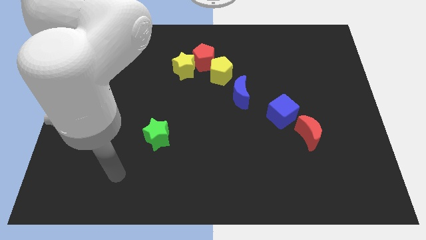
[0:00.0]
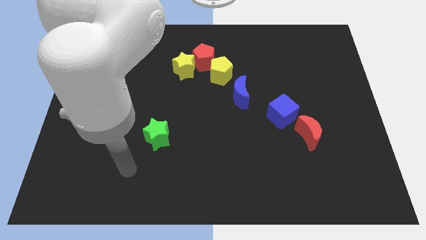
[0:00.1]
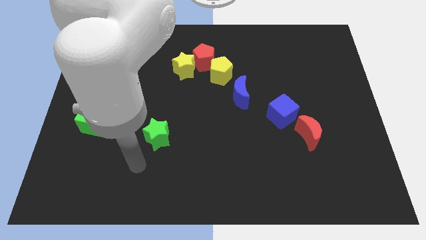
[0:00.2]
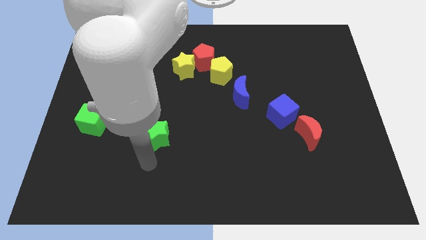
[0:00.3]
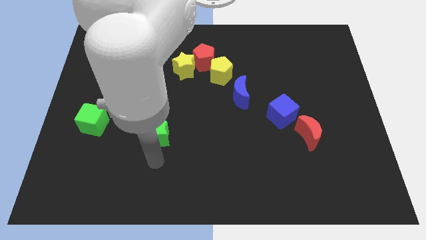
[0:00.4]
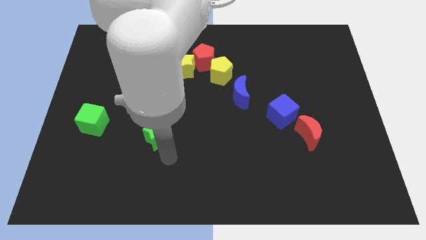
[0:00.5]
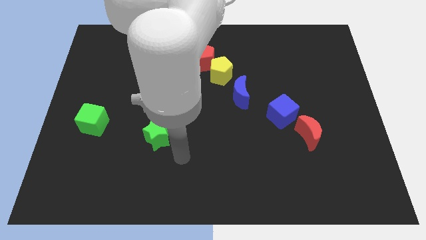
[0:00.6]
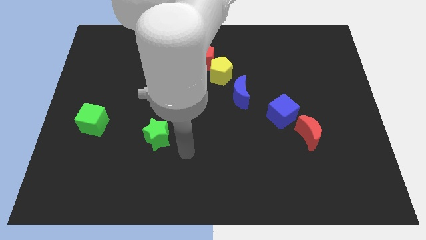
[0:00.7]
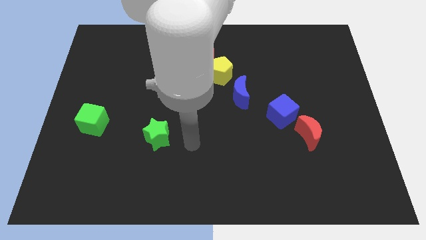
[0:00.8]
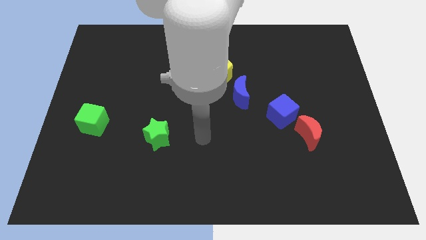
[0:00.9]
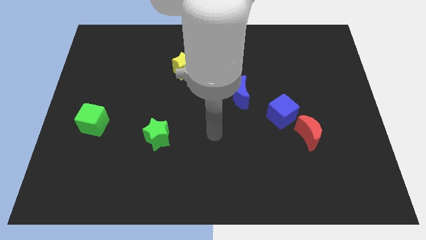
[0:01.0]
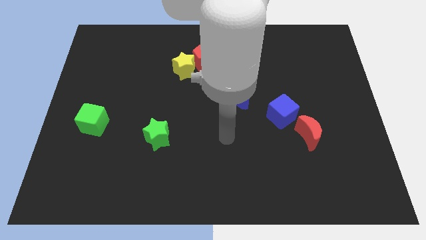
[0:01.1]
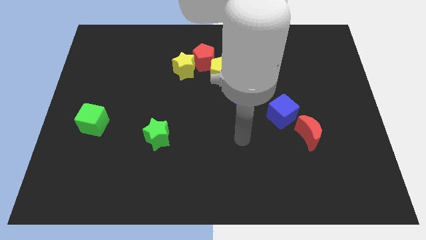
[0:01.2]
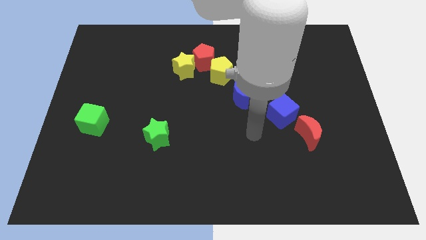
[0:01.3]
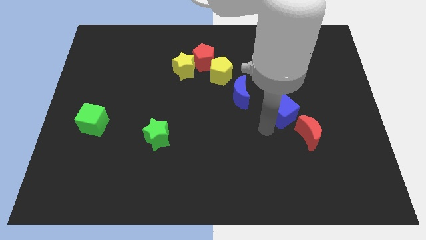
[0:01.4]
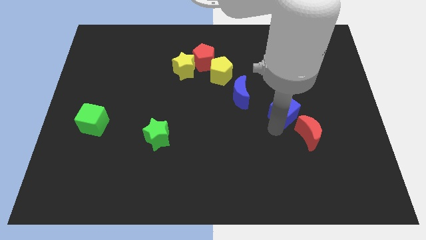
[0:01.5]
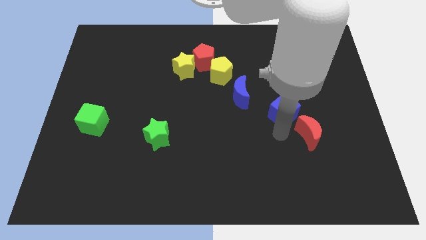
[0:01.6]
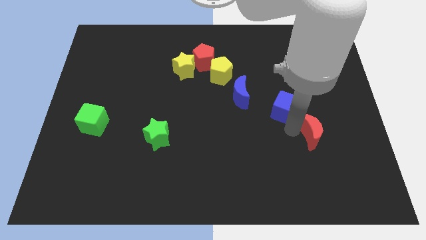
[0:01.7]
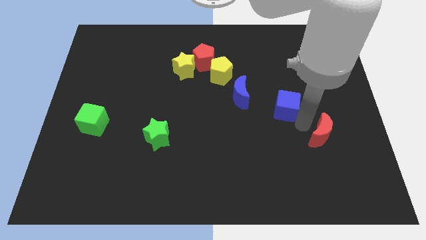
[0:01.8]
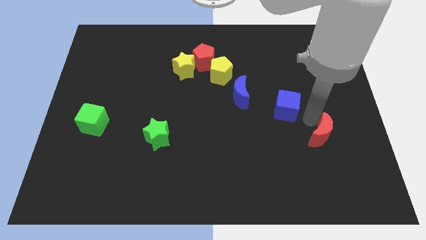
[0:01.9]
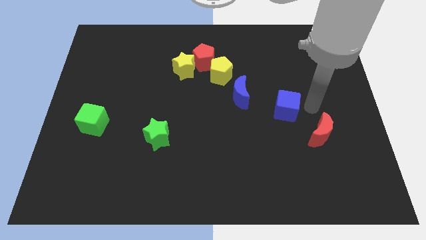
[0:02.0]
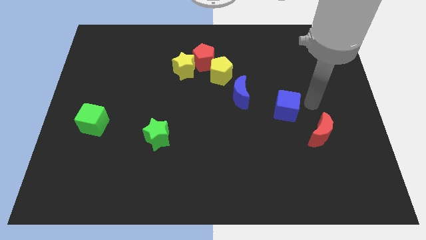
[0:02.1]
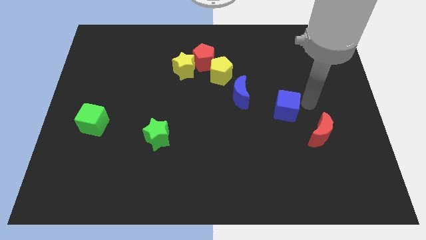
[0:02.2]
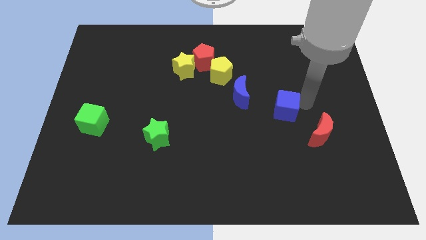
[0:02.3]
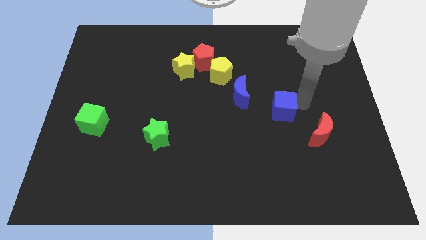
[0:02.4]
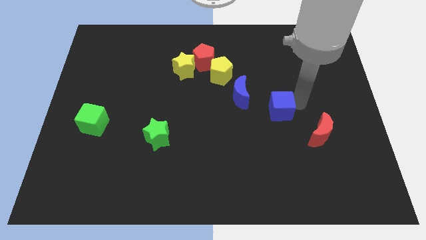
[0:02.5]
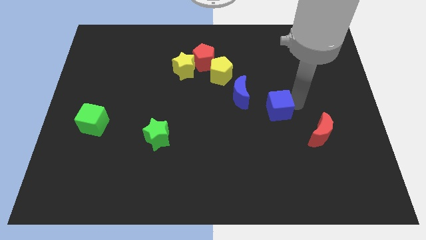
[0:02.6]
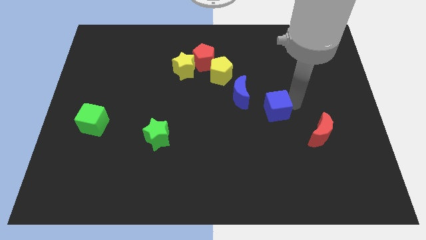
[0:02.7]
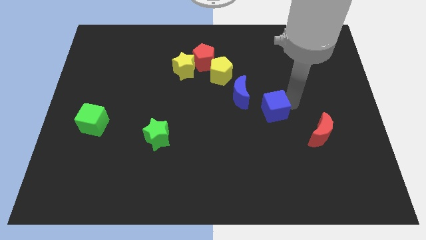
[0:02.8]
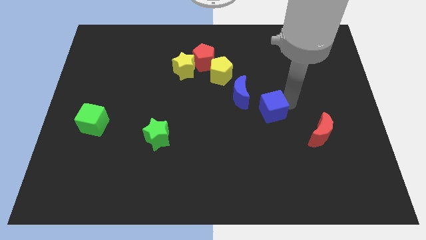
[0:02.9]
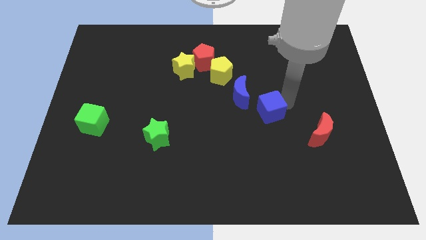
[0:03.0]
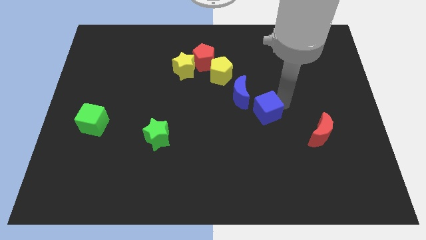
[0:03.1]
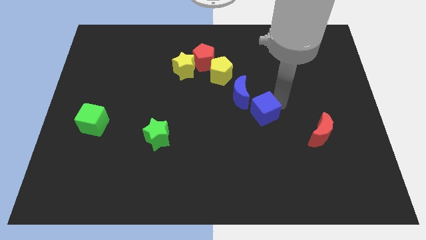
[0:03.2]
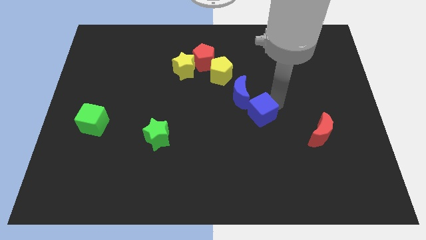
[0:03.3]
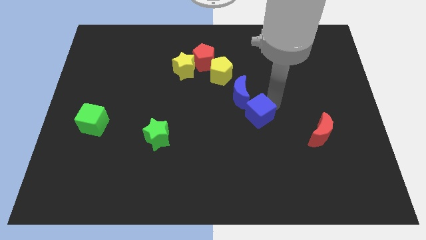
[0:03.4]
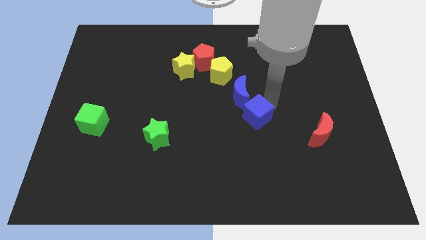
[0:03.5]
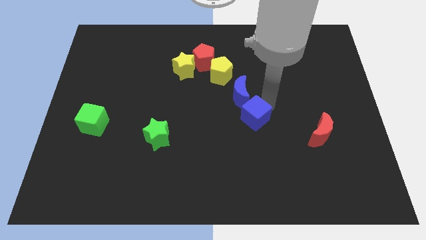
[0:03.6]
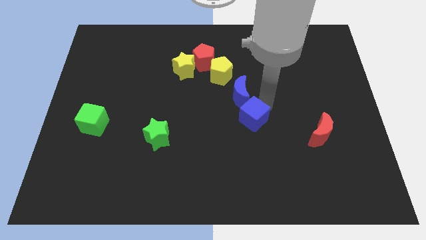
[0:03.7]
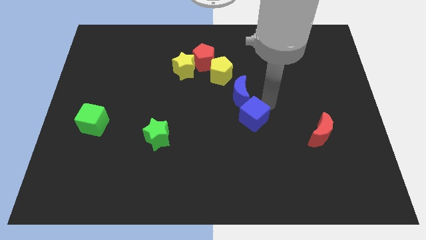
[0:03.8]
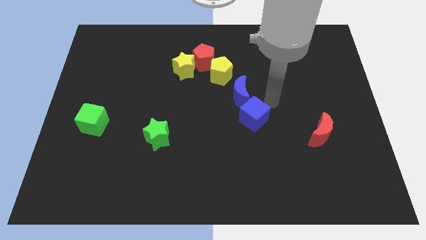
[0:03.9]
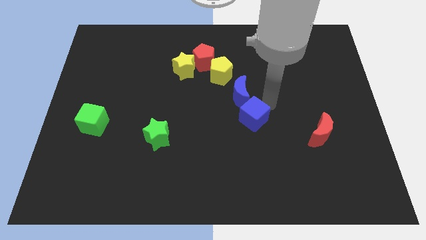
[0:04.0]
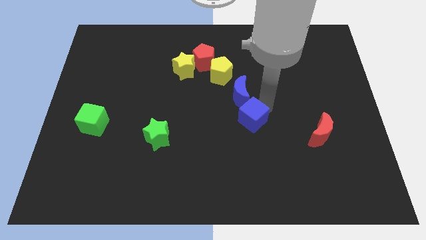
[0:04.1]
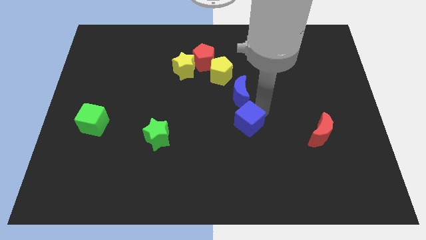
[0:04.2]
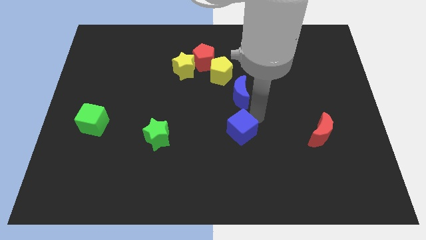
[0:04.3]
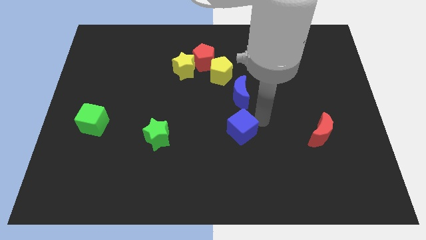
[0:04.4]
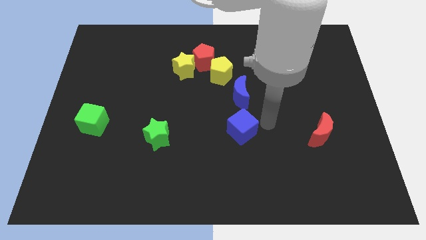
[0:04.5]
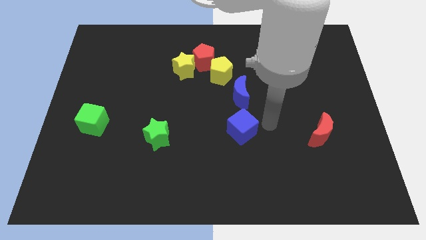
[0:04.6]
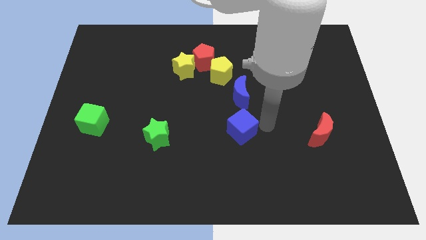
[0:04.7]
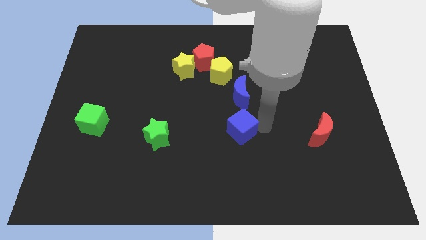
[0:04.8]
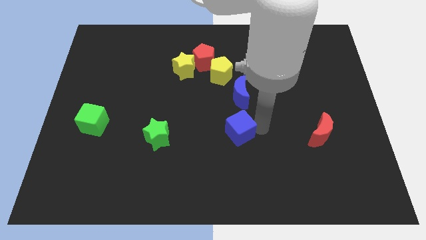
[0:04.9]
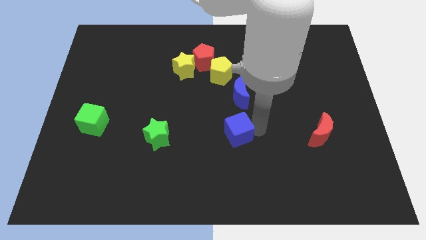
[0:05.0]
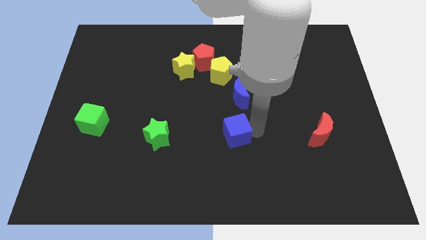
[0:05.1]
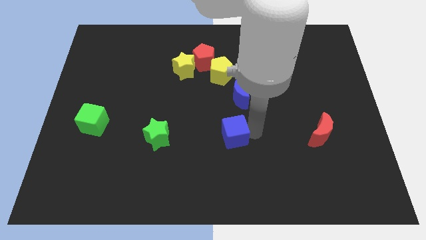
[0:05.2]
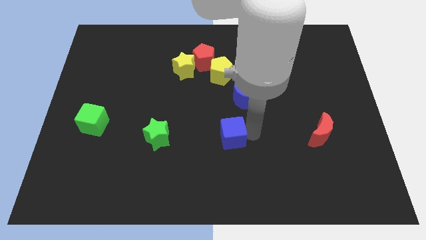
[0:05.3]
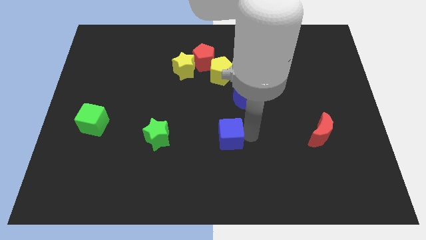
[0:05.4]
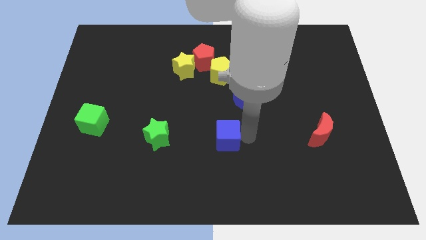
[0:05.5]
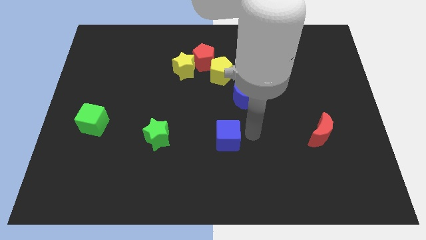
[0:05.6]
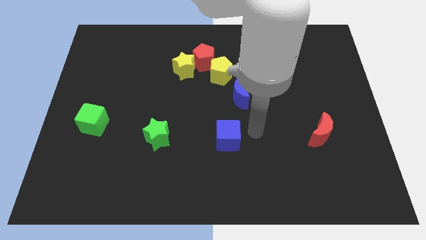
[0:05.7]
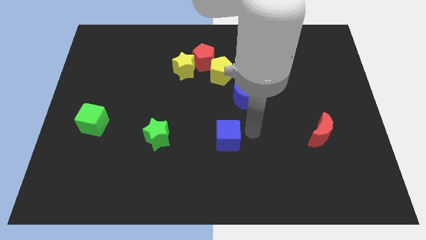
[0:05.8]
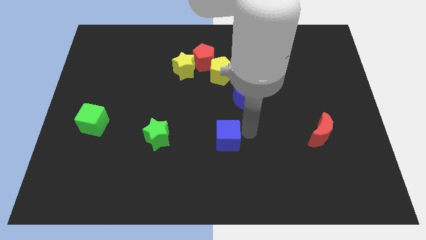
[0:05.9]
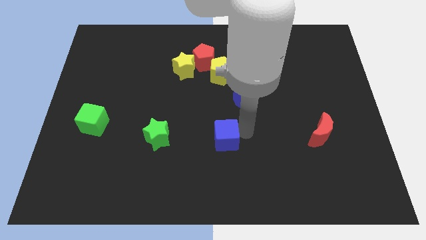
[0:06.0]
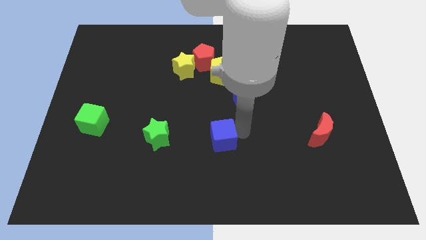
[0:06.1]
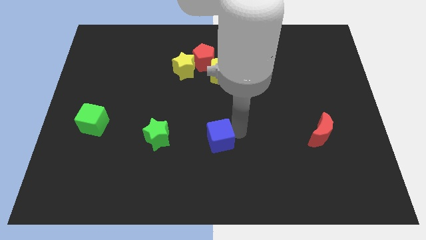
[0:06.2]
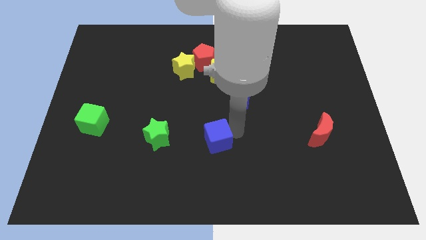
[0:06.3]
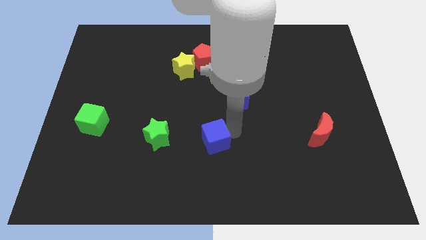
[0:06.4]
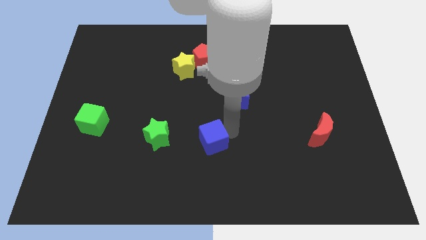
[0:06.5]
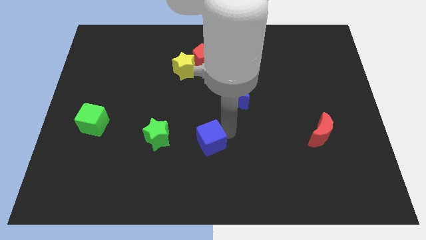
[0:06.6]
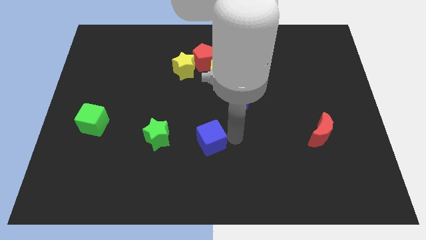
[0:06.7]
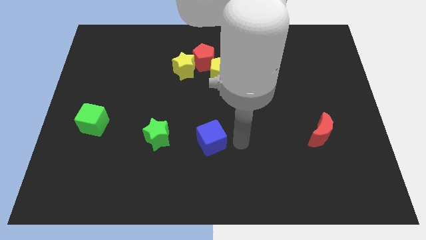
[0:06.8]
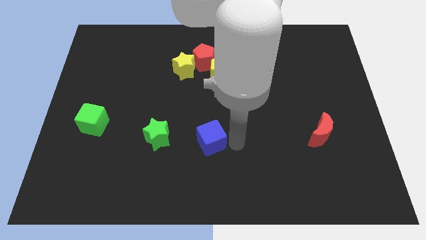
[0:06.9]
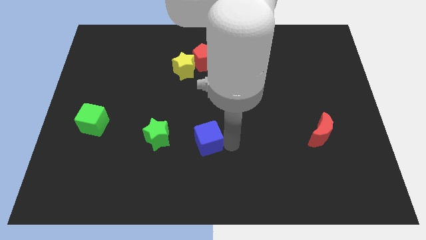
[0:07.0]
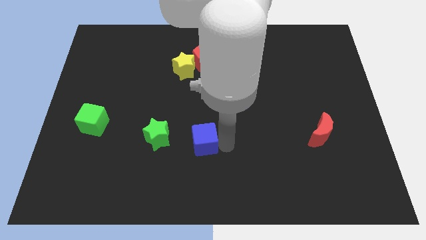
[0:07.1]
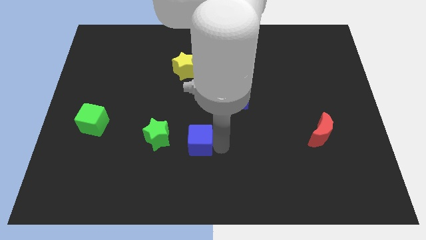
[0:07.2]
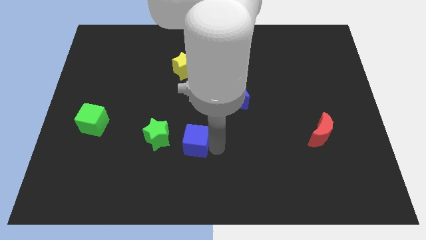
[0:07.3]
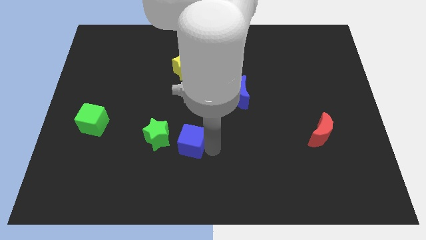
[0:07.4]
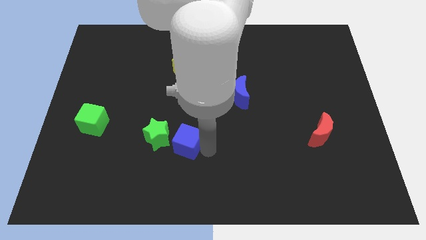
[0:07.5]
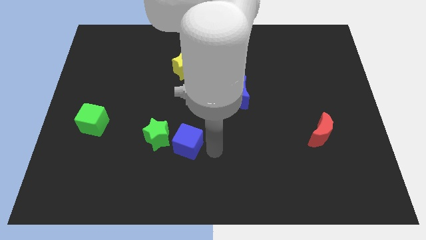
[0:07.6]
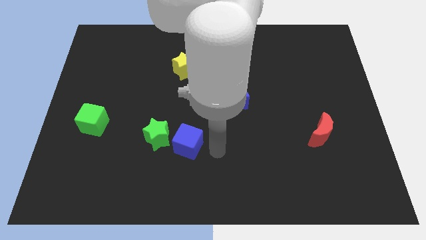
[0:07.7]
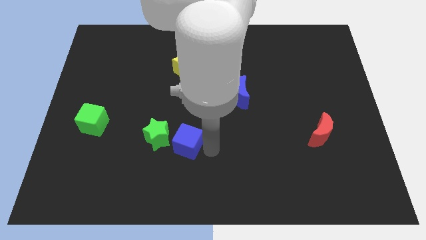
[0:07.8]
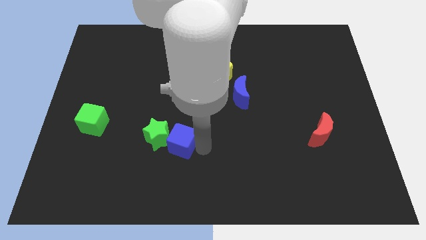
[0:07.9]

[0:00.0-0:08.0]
put the blue cube next to the green star

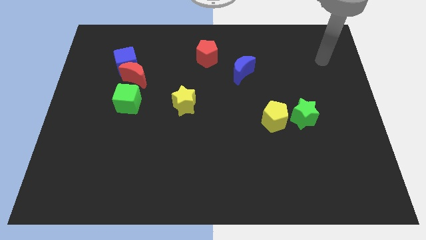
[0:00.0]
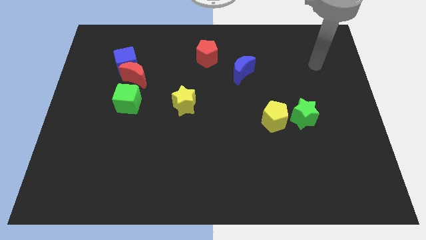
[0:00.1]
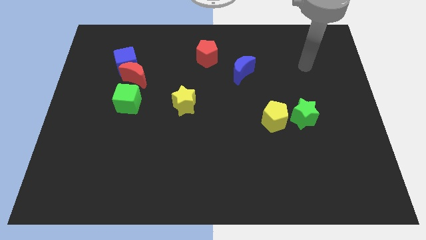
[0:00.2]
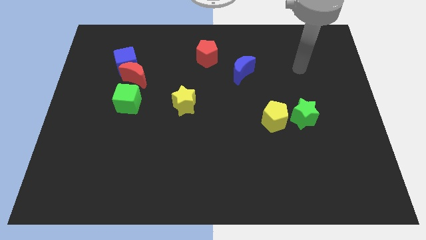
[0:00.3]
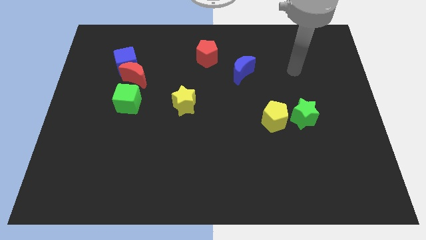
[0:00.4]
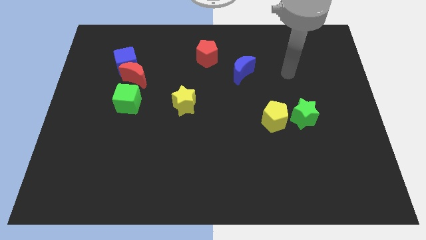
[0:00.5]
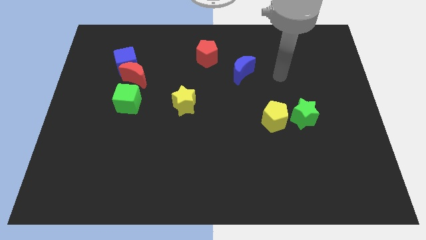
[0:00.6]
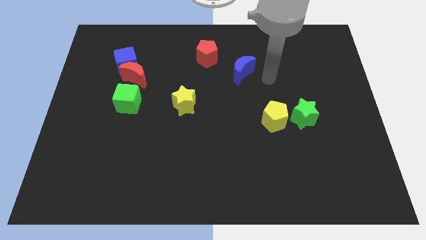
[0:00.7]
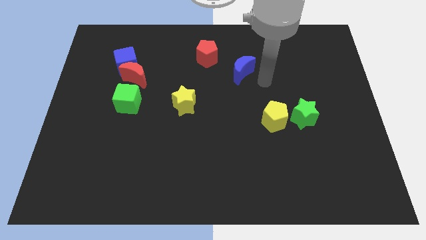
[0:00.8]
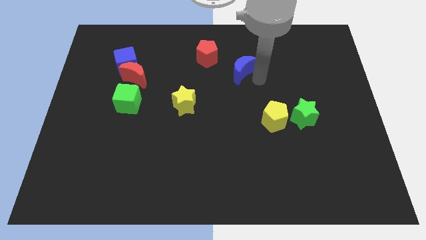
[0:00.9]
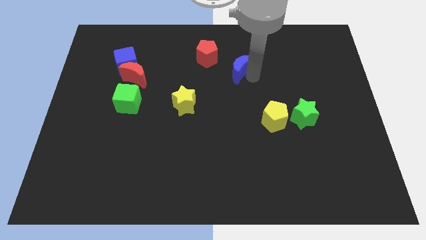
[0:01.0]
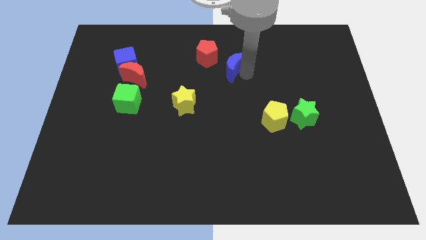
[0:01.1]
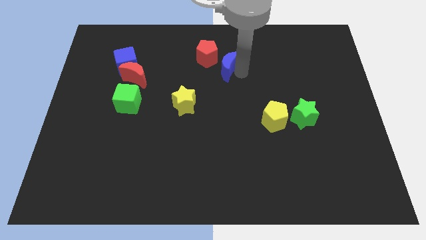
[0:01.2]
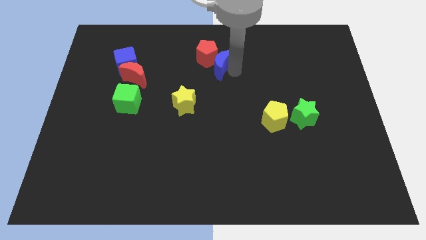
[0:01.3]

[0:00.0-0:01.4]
push the blue moon close to the red pentagon
